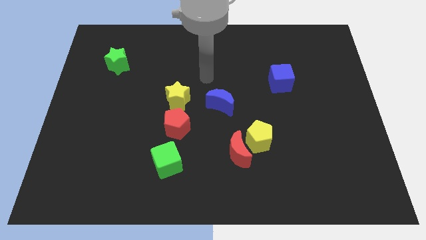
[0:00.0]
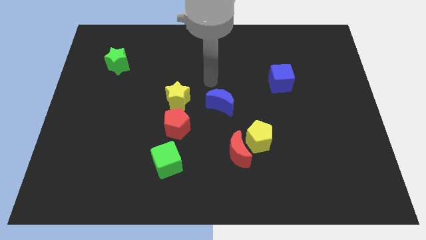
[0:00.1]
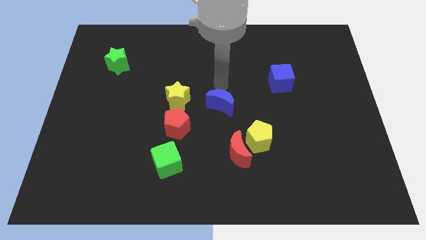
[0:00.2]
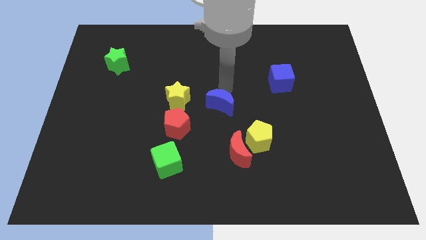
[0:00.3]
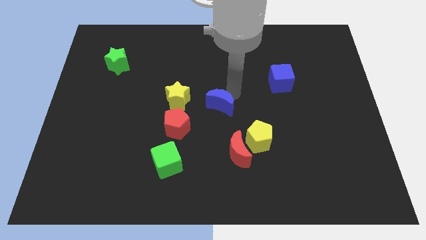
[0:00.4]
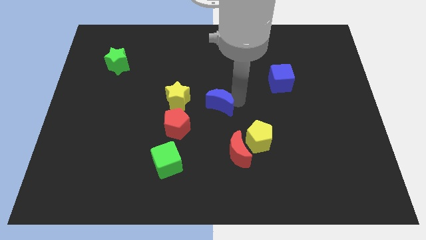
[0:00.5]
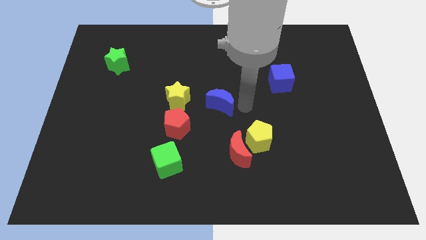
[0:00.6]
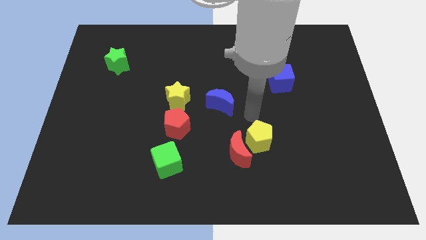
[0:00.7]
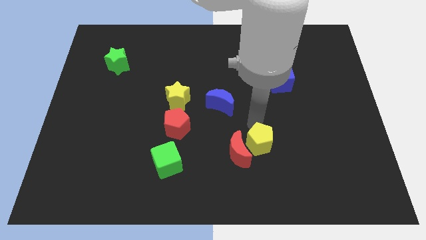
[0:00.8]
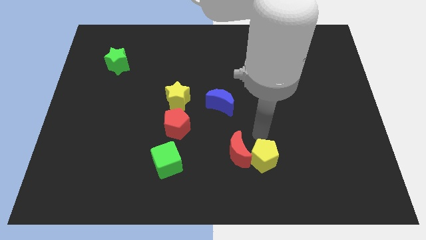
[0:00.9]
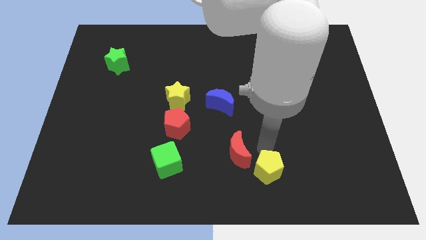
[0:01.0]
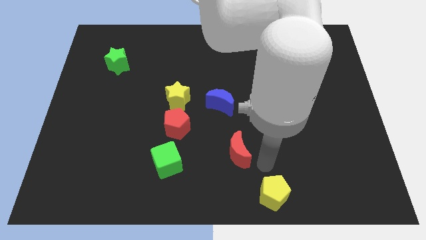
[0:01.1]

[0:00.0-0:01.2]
move the red moon away from the yellow pentagon

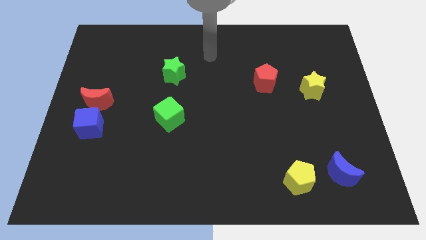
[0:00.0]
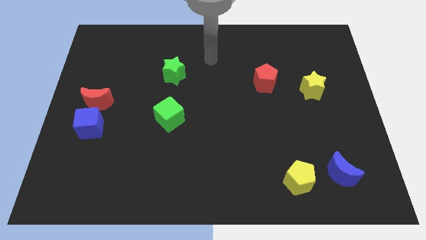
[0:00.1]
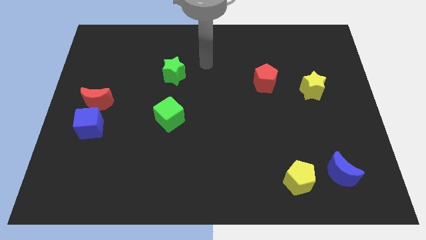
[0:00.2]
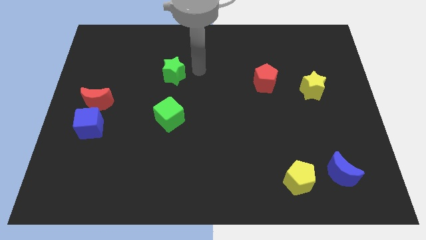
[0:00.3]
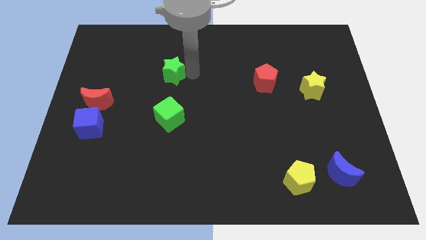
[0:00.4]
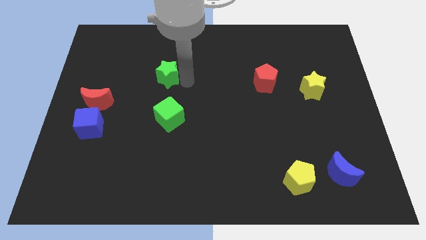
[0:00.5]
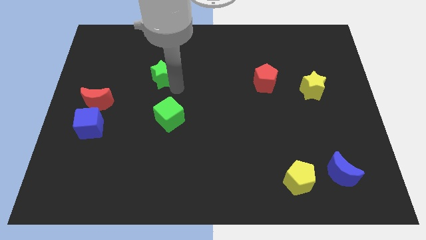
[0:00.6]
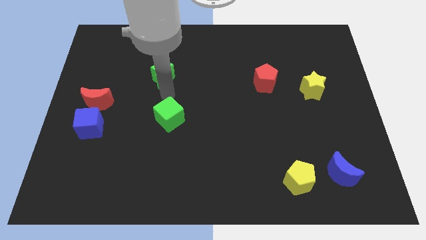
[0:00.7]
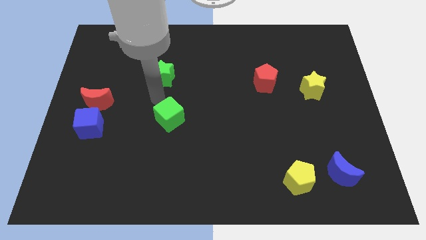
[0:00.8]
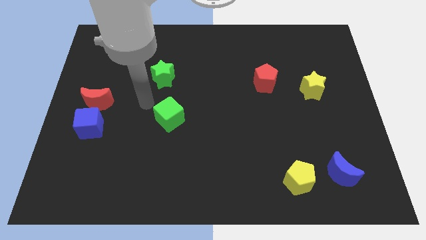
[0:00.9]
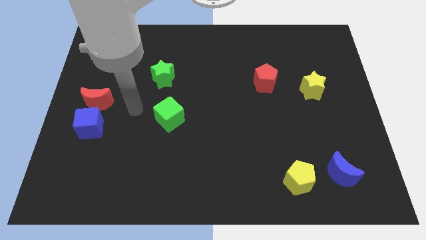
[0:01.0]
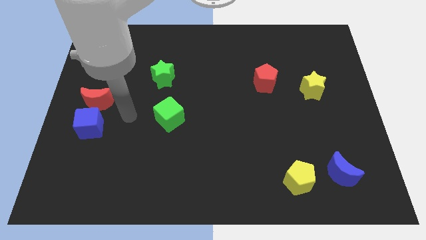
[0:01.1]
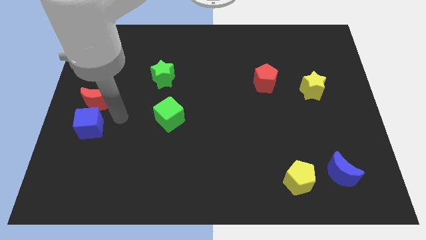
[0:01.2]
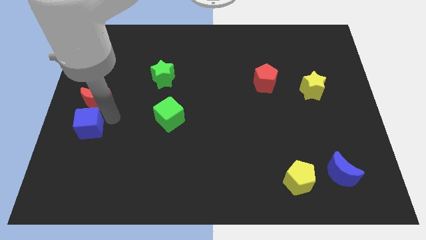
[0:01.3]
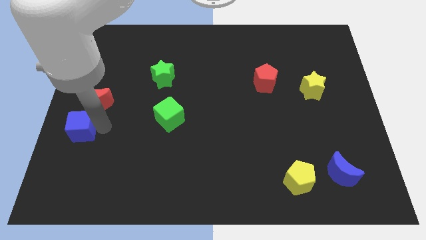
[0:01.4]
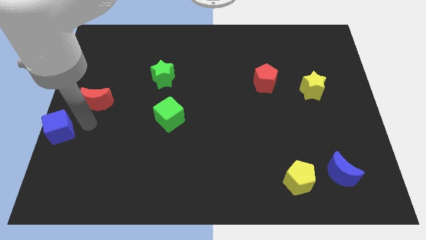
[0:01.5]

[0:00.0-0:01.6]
separate the red moon from the blue cube

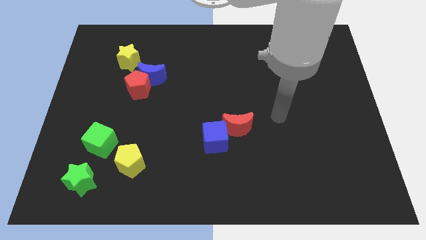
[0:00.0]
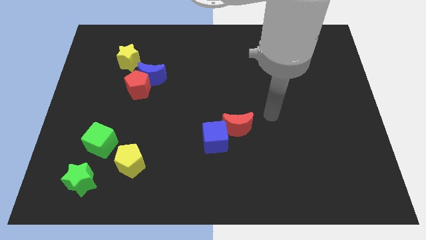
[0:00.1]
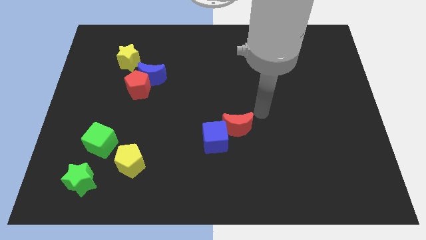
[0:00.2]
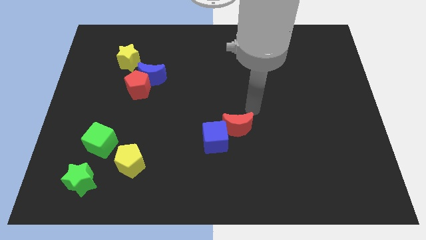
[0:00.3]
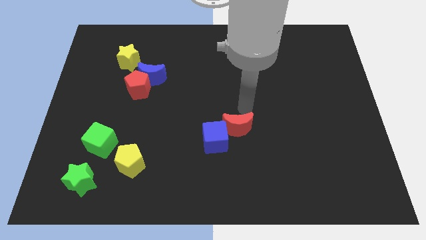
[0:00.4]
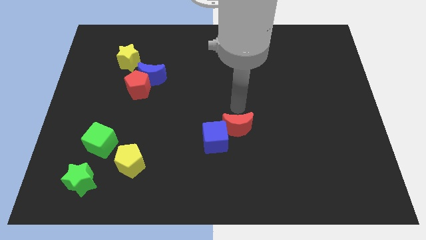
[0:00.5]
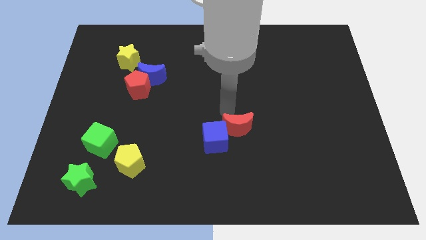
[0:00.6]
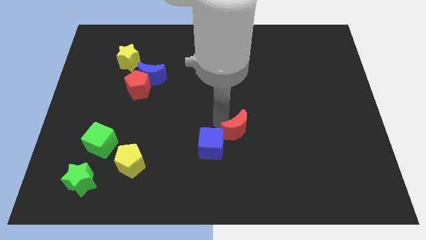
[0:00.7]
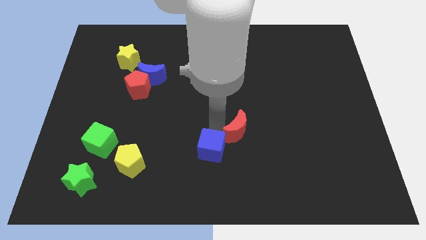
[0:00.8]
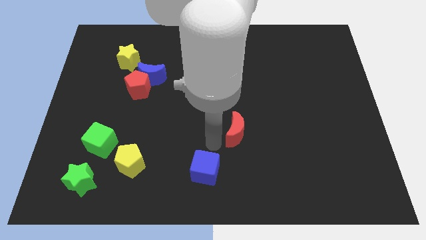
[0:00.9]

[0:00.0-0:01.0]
pull the red moon apart from the blue cube

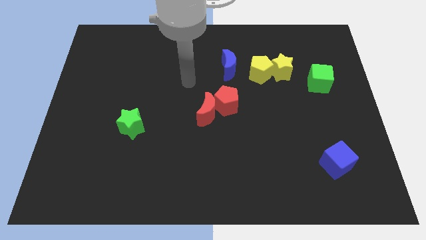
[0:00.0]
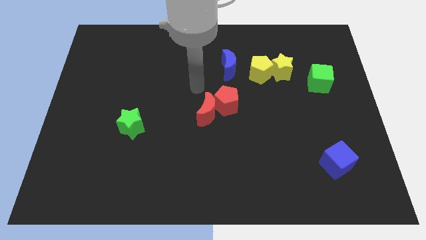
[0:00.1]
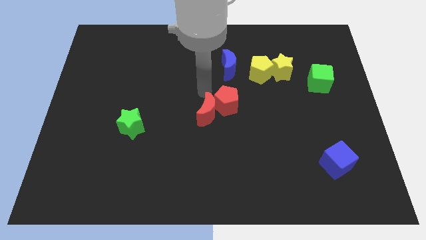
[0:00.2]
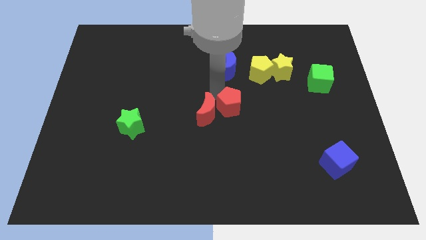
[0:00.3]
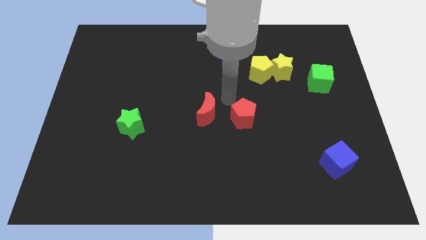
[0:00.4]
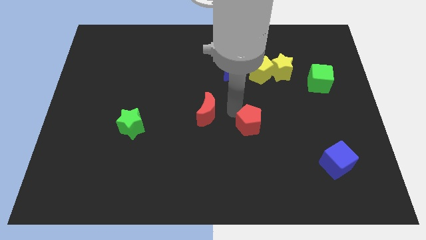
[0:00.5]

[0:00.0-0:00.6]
separate the red moon from the red pentagon

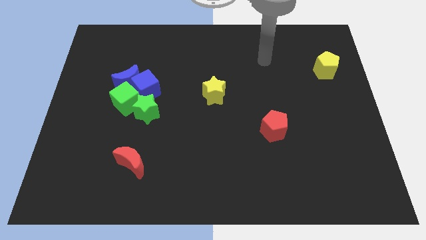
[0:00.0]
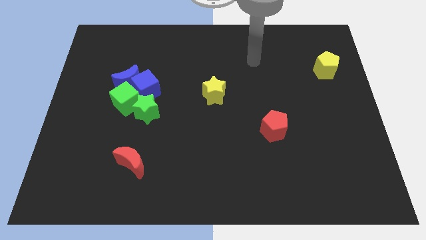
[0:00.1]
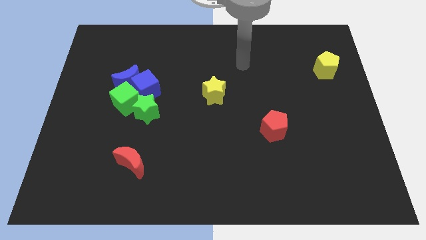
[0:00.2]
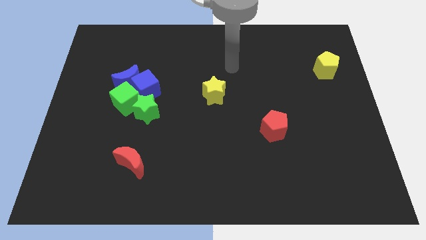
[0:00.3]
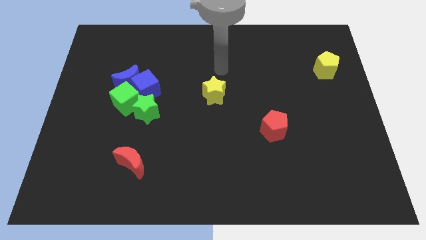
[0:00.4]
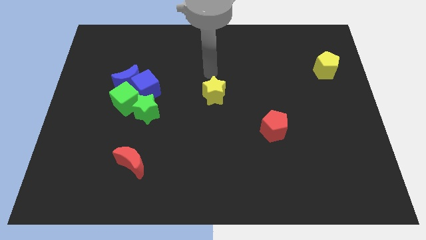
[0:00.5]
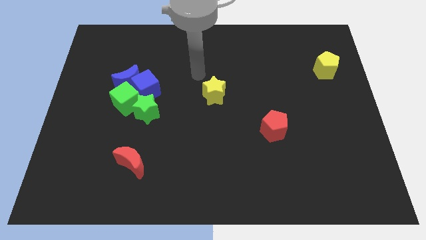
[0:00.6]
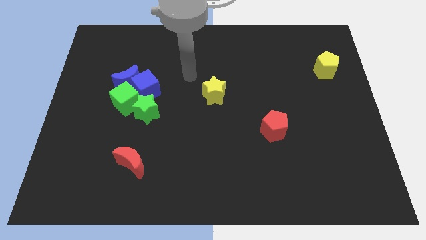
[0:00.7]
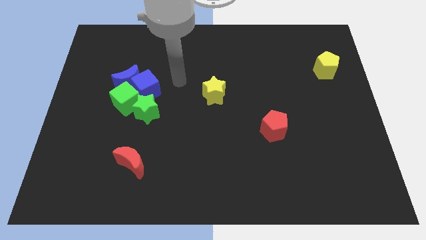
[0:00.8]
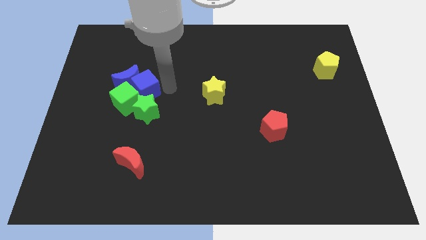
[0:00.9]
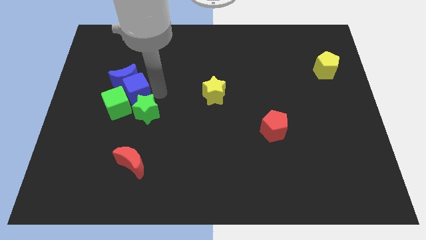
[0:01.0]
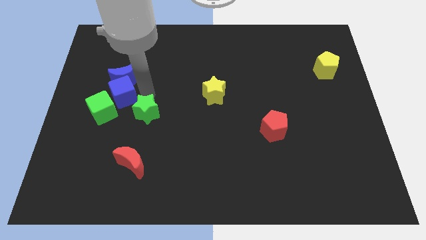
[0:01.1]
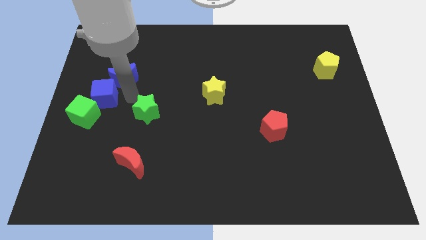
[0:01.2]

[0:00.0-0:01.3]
separate the blue moon from the blue cube and green cube

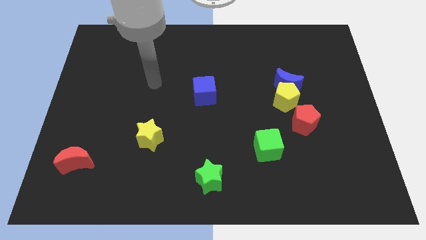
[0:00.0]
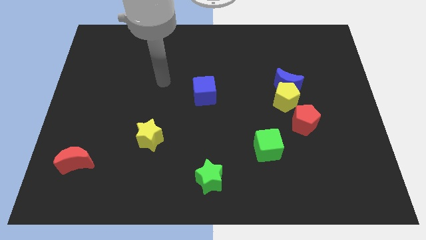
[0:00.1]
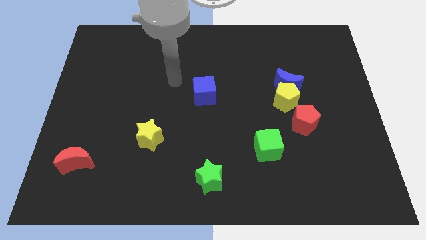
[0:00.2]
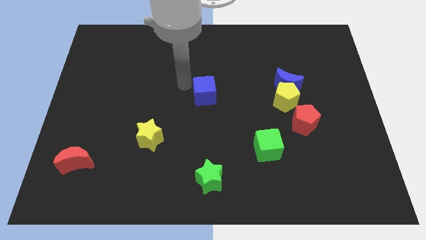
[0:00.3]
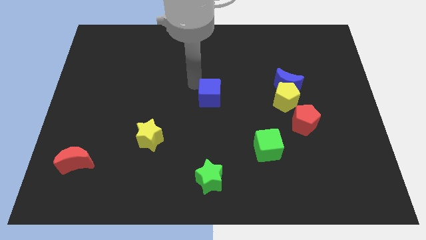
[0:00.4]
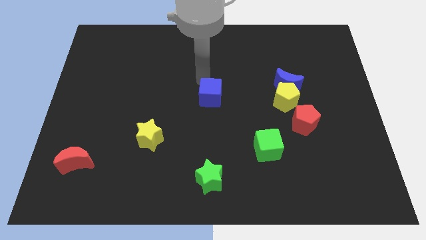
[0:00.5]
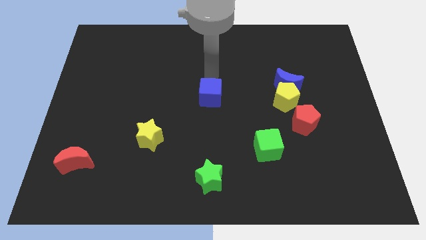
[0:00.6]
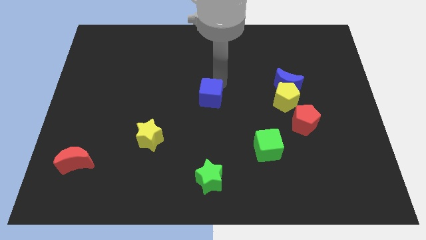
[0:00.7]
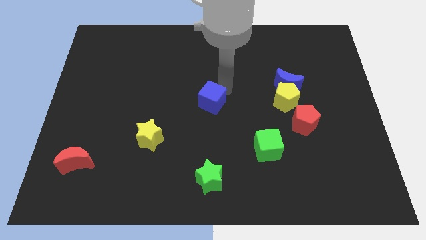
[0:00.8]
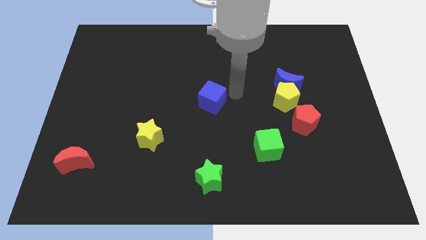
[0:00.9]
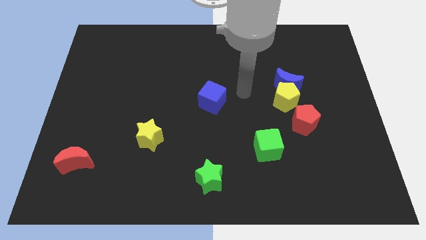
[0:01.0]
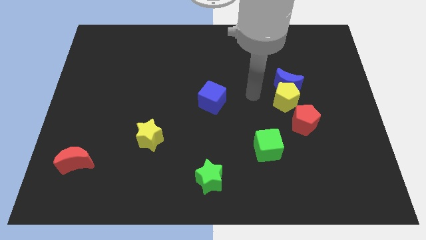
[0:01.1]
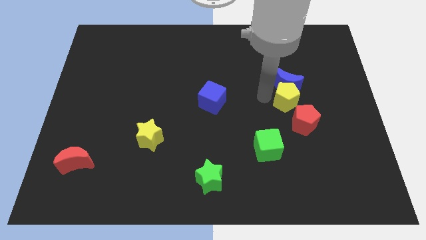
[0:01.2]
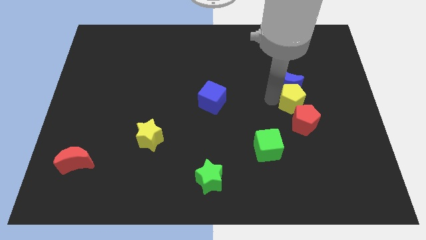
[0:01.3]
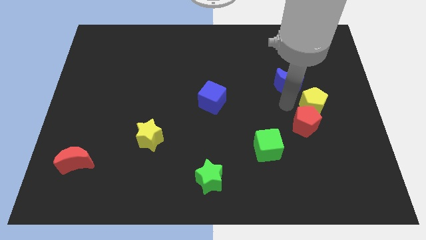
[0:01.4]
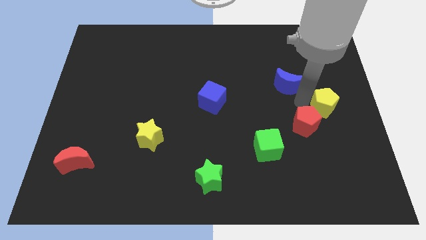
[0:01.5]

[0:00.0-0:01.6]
pull the blue moon apart from the yellow pentagon

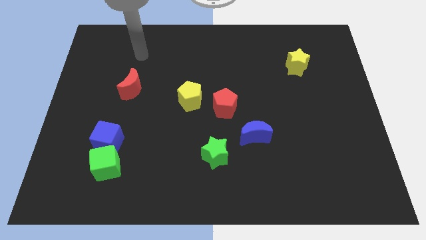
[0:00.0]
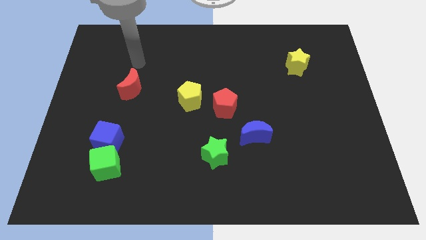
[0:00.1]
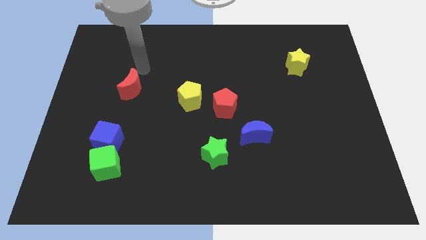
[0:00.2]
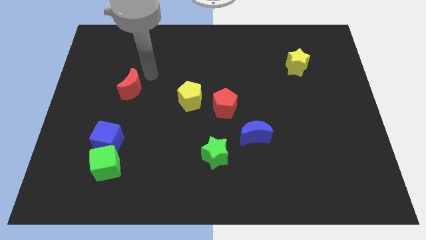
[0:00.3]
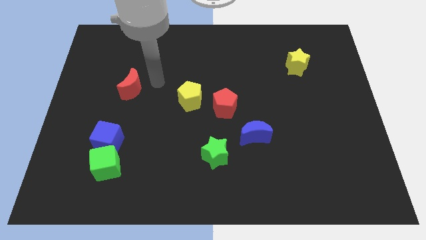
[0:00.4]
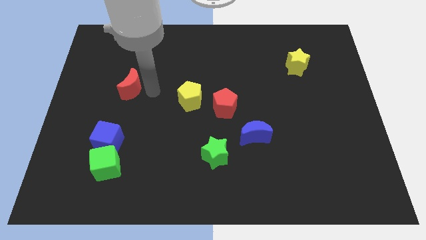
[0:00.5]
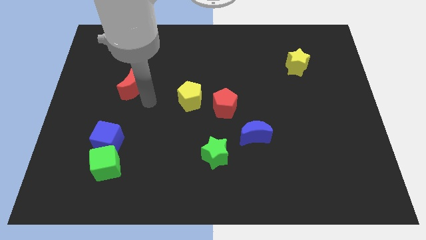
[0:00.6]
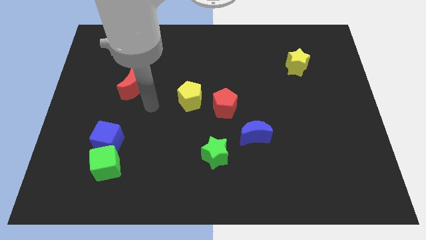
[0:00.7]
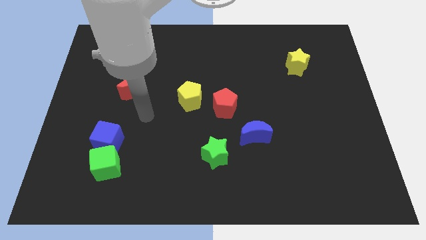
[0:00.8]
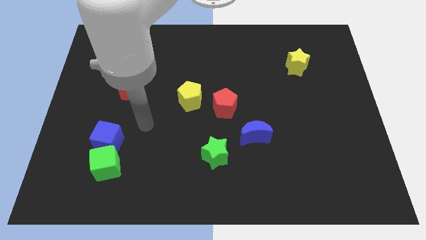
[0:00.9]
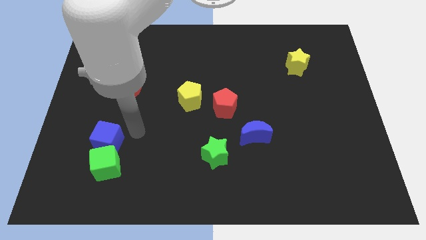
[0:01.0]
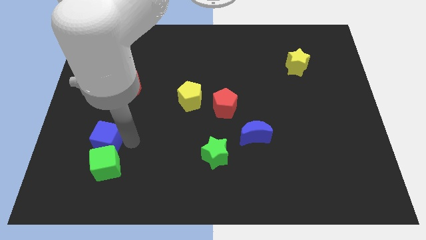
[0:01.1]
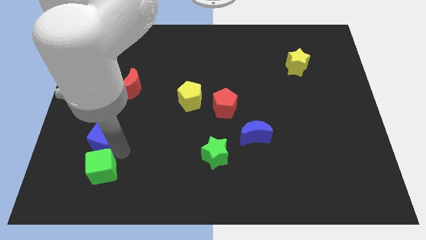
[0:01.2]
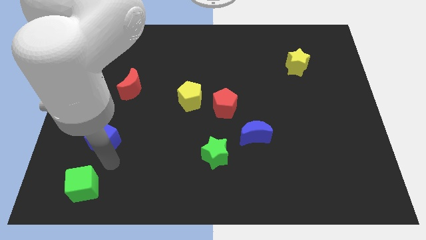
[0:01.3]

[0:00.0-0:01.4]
separate the blue cube from the green cube

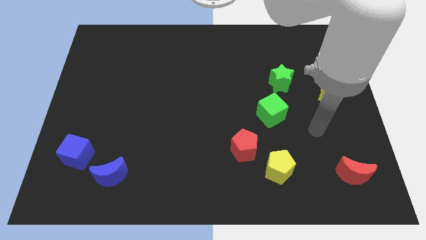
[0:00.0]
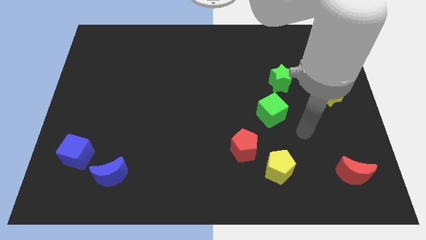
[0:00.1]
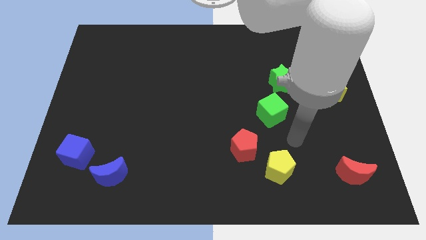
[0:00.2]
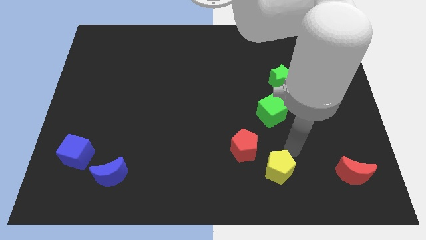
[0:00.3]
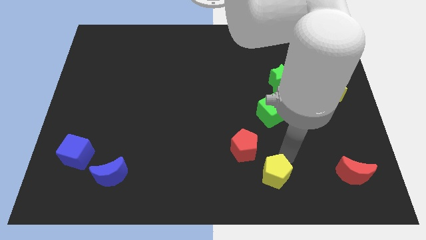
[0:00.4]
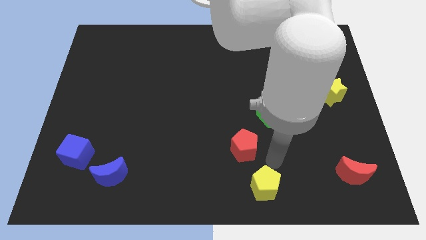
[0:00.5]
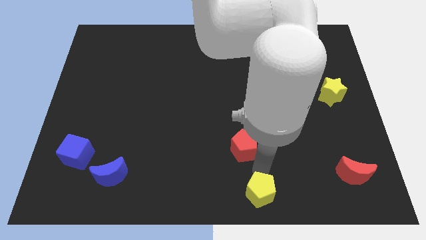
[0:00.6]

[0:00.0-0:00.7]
separate the red pentagon from the yellow pentagon
